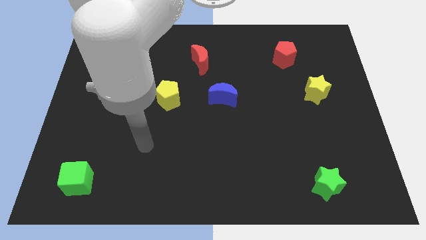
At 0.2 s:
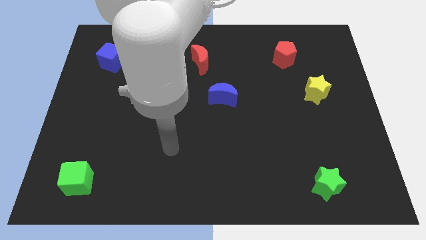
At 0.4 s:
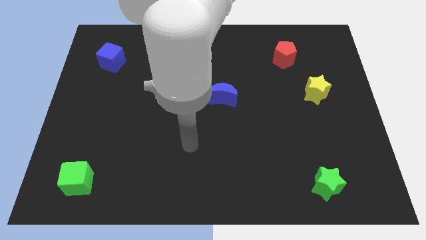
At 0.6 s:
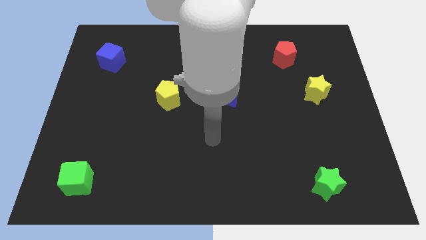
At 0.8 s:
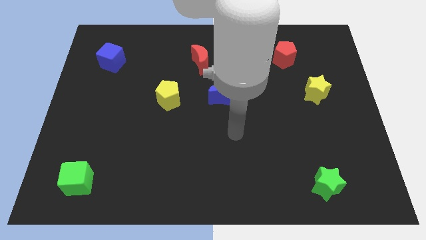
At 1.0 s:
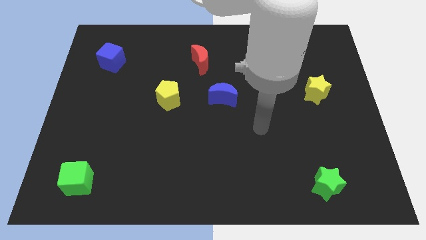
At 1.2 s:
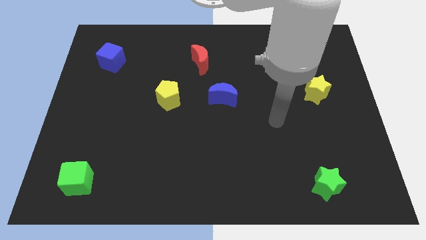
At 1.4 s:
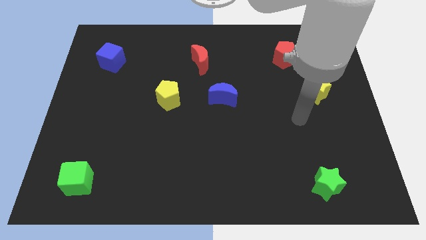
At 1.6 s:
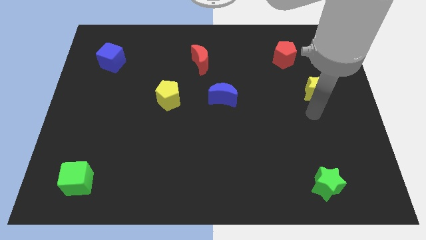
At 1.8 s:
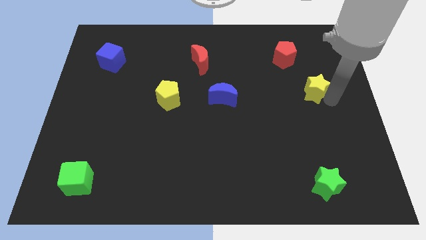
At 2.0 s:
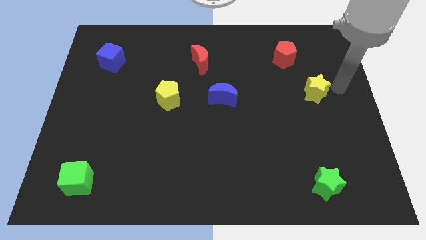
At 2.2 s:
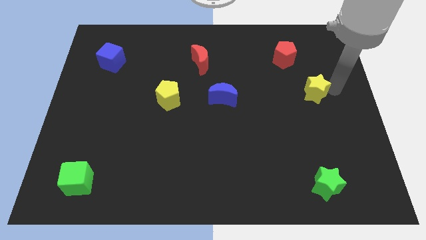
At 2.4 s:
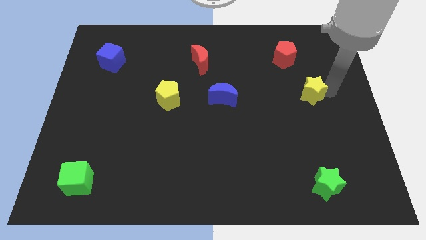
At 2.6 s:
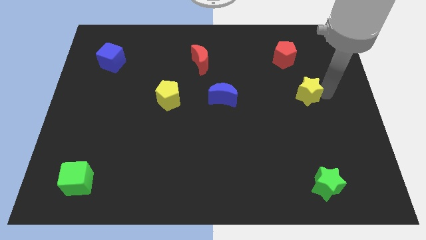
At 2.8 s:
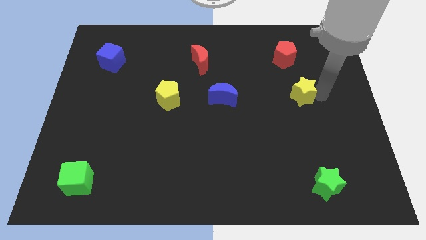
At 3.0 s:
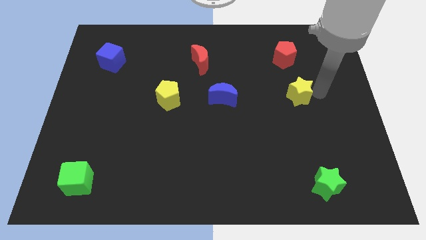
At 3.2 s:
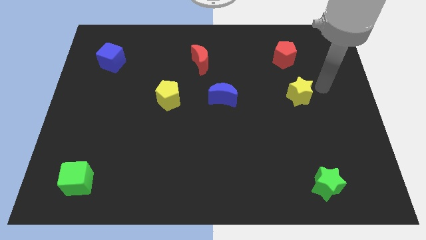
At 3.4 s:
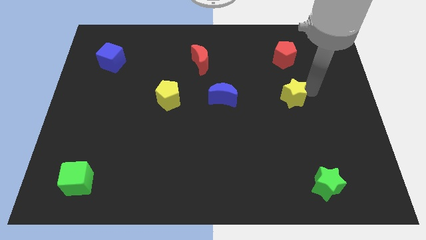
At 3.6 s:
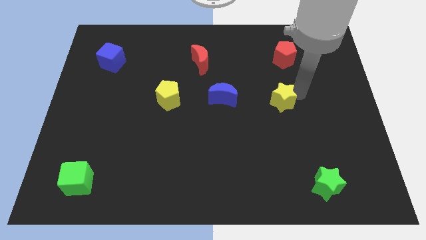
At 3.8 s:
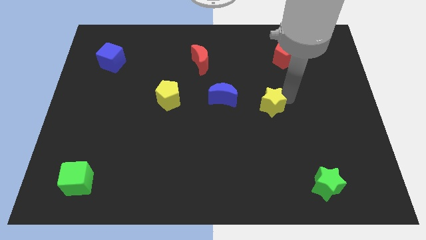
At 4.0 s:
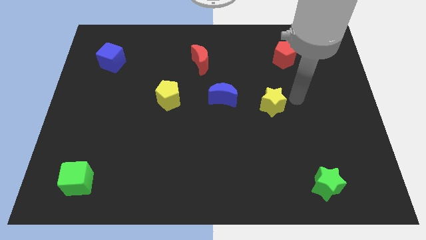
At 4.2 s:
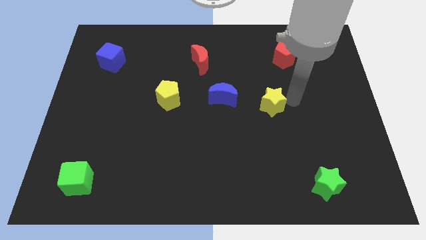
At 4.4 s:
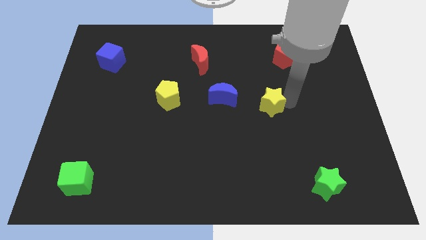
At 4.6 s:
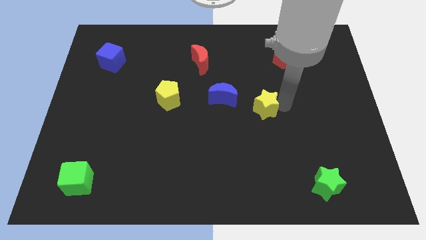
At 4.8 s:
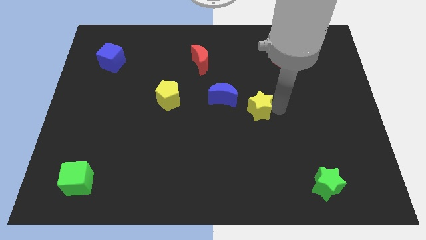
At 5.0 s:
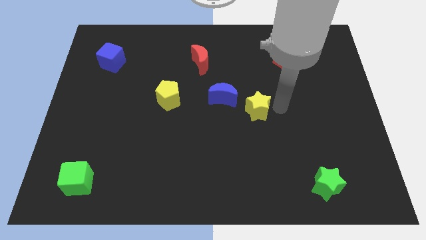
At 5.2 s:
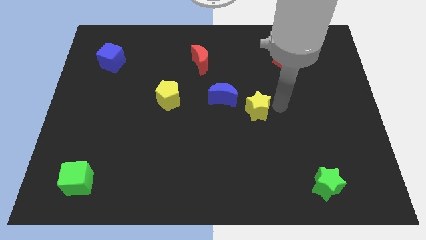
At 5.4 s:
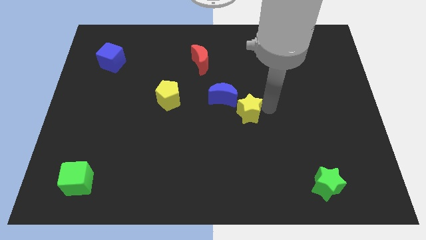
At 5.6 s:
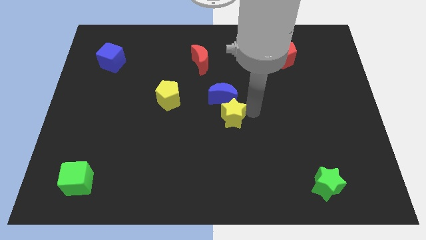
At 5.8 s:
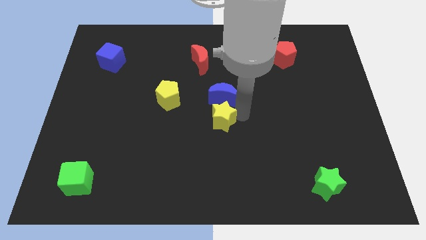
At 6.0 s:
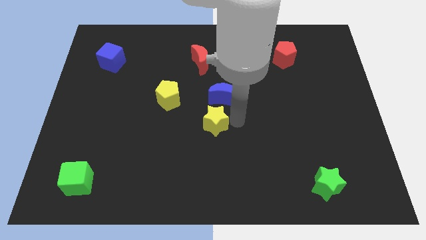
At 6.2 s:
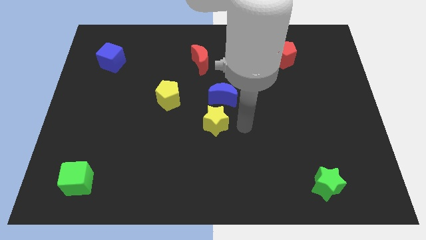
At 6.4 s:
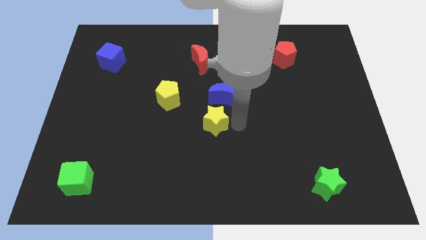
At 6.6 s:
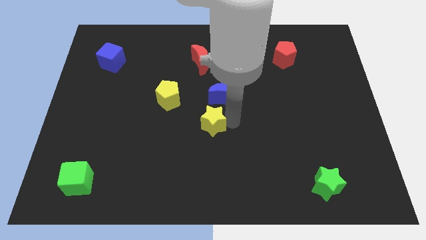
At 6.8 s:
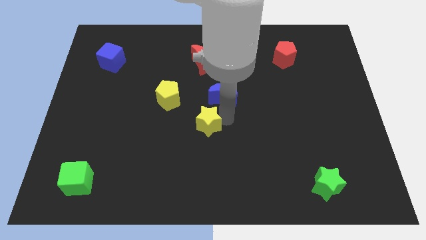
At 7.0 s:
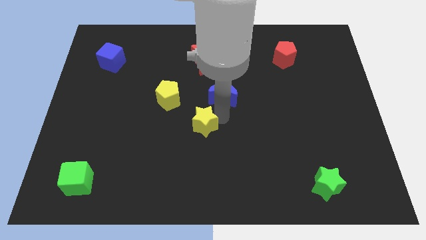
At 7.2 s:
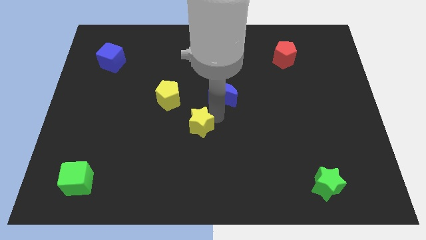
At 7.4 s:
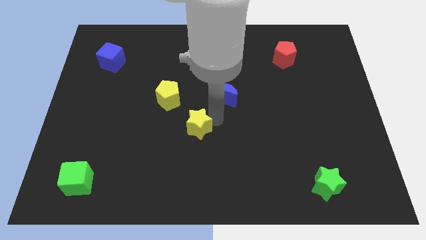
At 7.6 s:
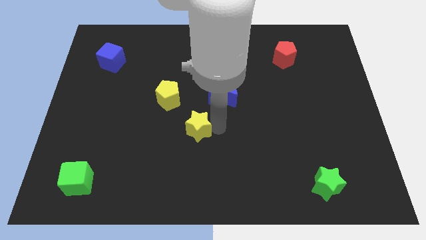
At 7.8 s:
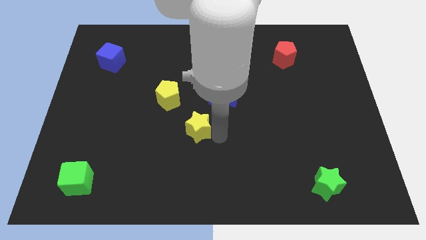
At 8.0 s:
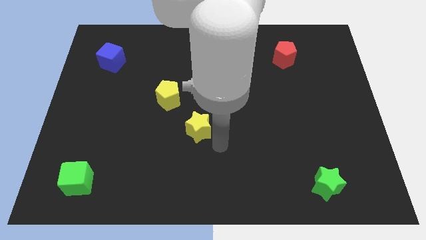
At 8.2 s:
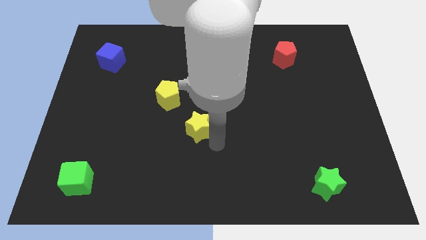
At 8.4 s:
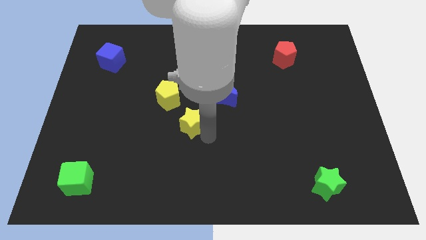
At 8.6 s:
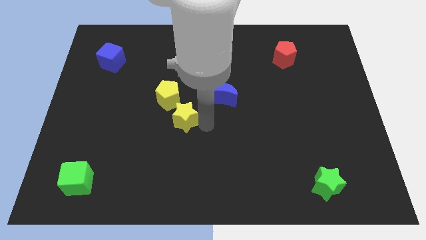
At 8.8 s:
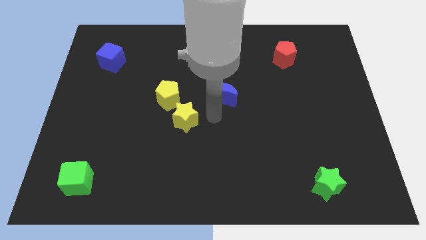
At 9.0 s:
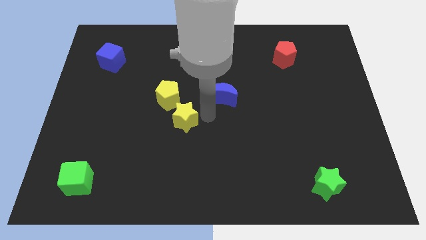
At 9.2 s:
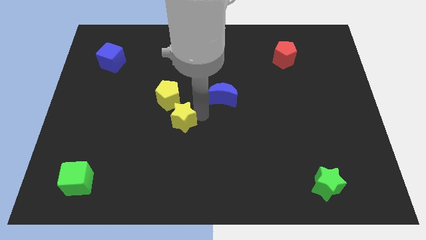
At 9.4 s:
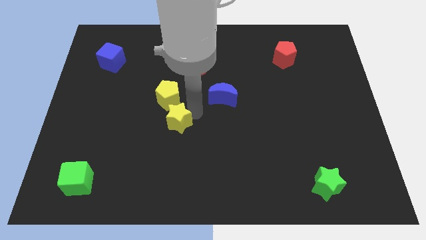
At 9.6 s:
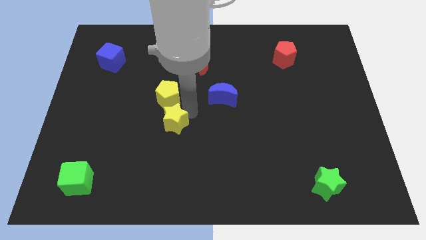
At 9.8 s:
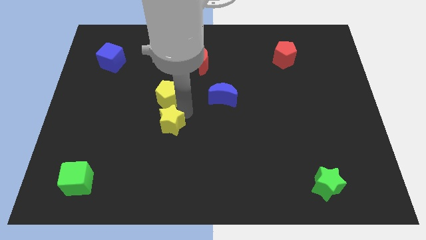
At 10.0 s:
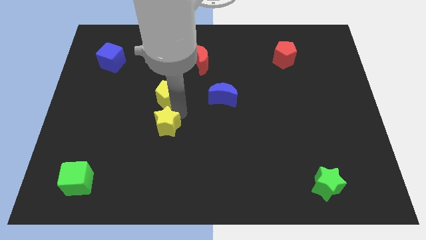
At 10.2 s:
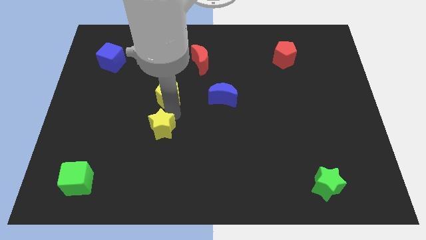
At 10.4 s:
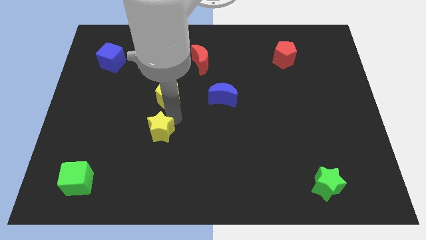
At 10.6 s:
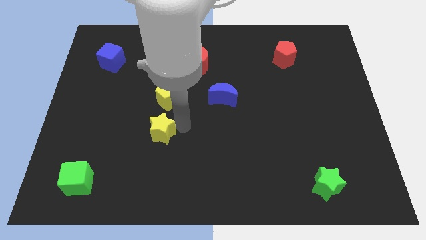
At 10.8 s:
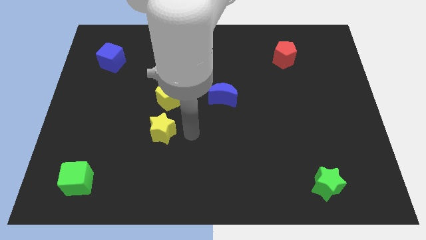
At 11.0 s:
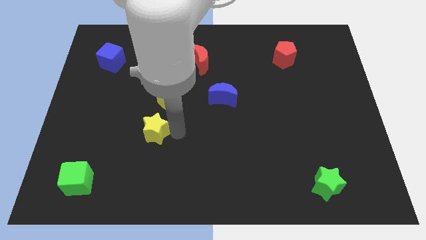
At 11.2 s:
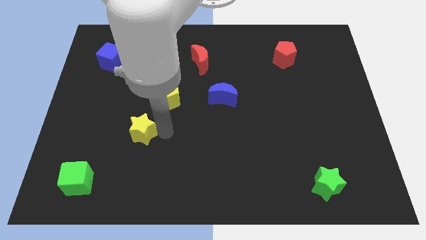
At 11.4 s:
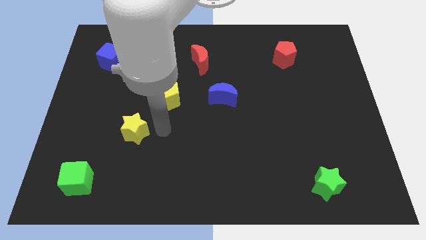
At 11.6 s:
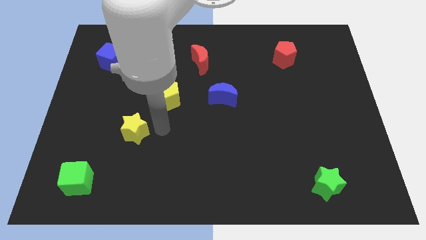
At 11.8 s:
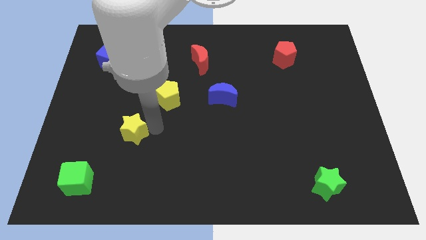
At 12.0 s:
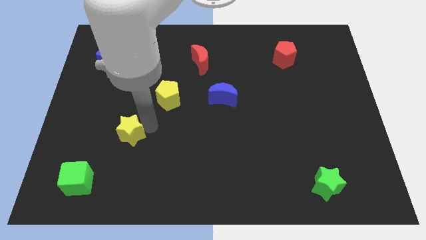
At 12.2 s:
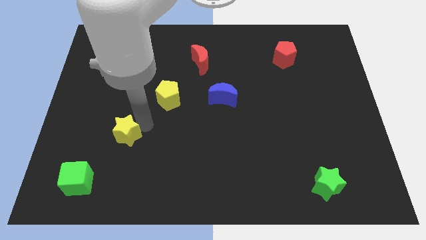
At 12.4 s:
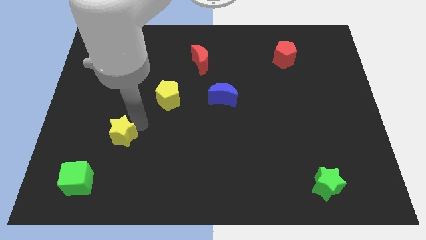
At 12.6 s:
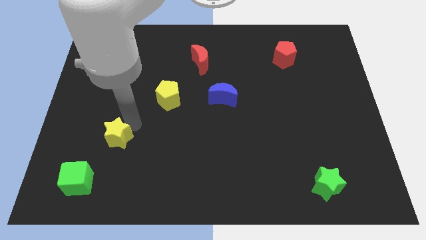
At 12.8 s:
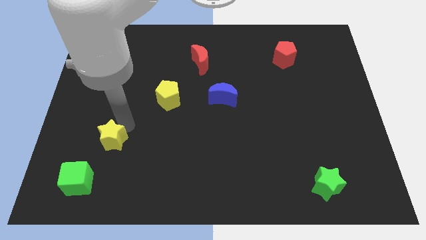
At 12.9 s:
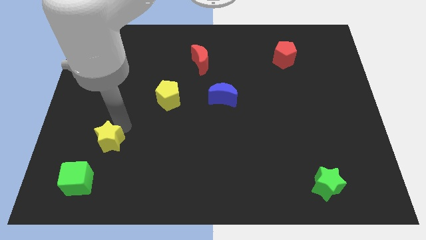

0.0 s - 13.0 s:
slide the yellow star to the top side of the green cube

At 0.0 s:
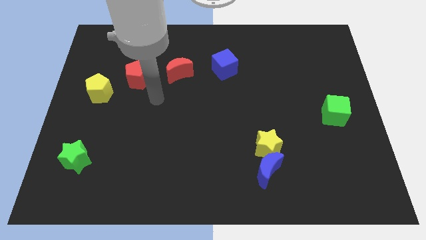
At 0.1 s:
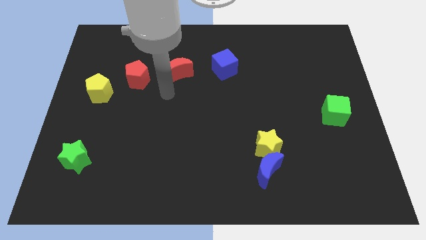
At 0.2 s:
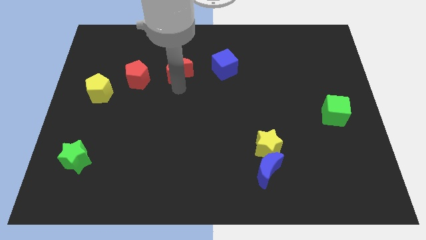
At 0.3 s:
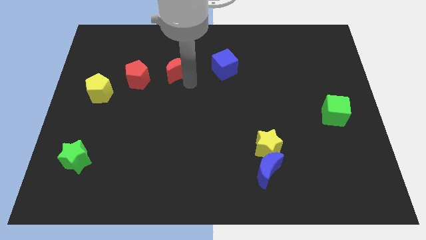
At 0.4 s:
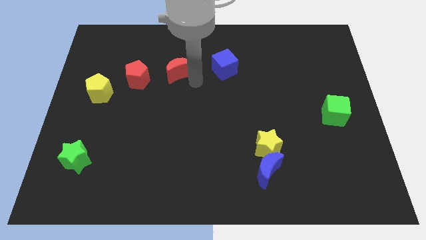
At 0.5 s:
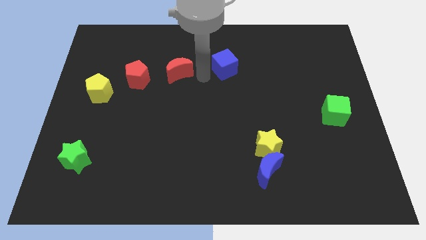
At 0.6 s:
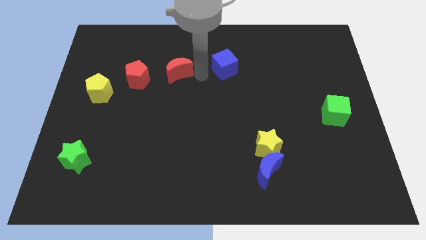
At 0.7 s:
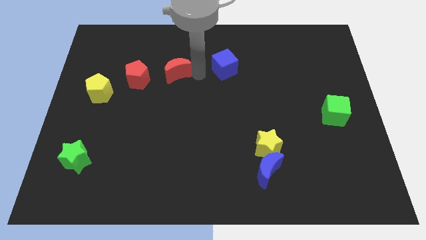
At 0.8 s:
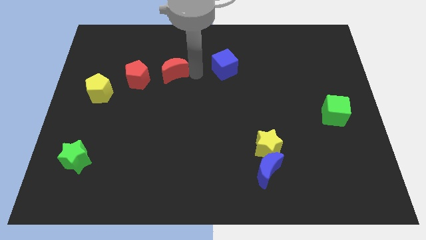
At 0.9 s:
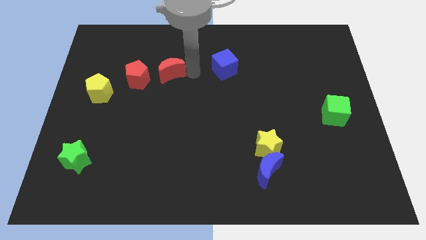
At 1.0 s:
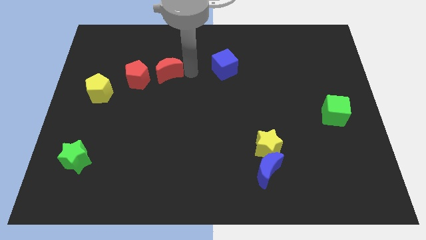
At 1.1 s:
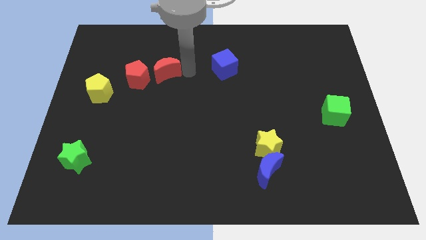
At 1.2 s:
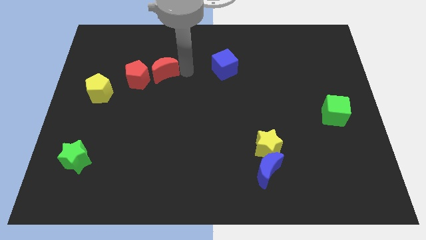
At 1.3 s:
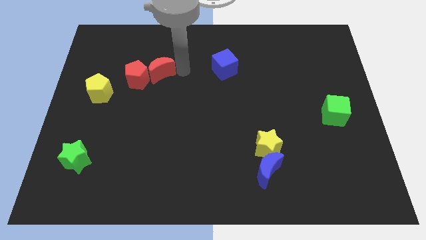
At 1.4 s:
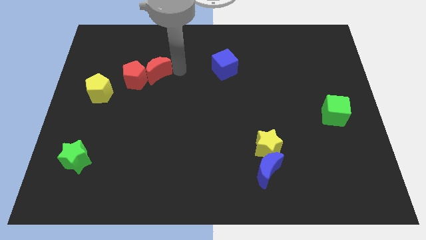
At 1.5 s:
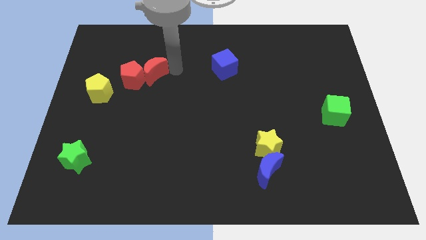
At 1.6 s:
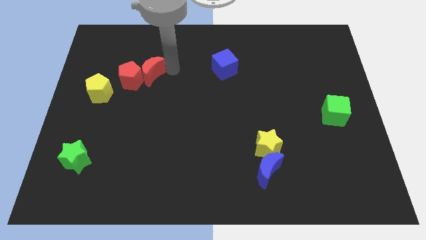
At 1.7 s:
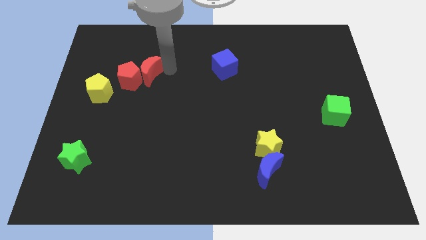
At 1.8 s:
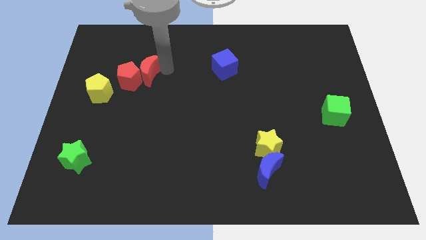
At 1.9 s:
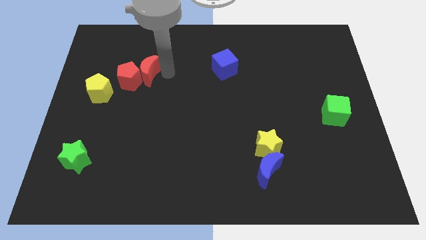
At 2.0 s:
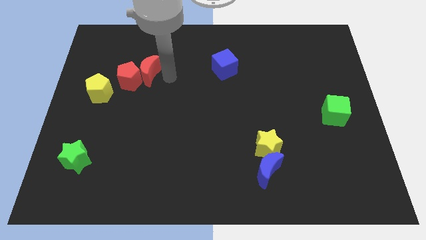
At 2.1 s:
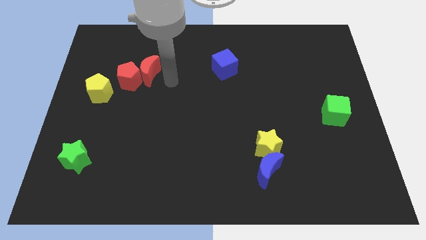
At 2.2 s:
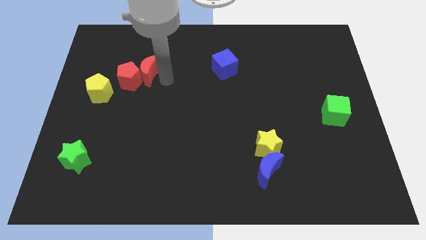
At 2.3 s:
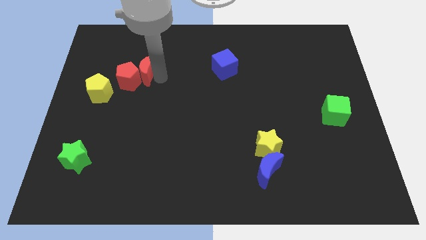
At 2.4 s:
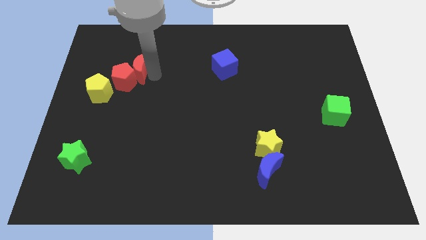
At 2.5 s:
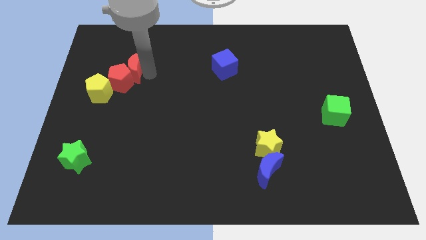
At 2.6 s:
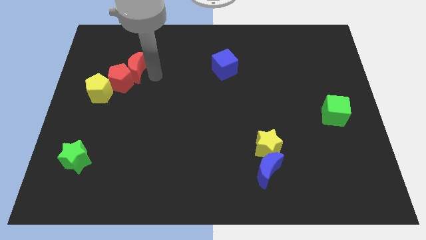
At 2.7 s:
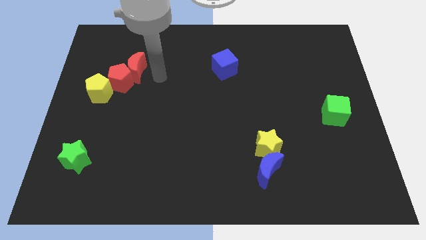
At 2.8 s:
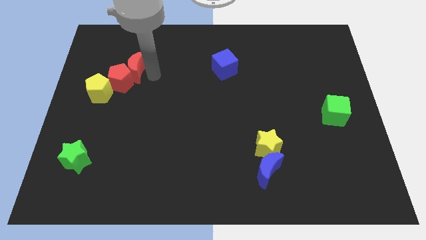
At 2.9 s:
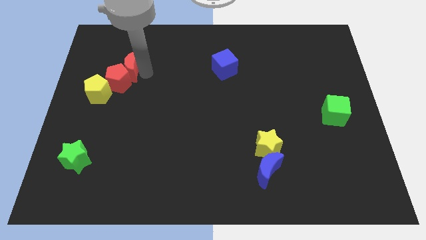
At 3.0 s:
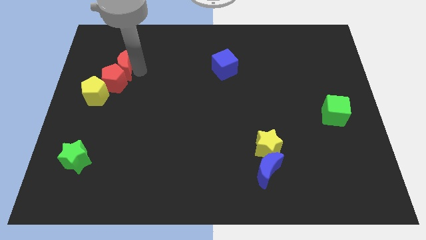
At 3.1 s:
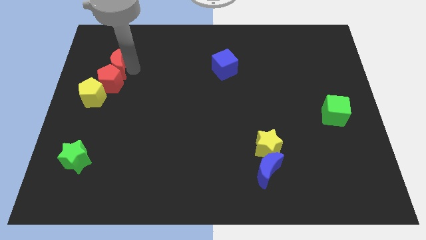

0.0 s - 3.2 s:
slide the red moon to the top side of the yellow pentagon
